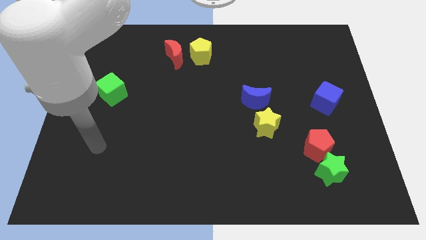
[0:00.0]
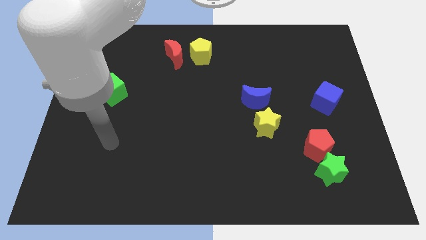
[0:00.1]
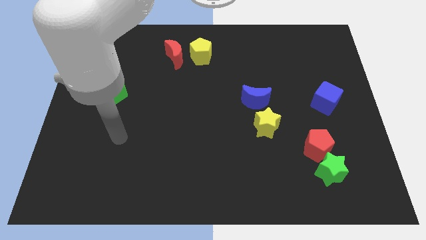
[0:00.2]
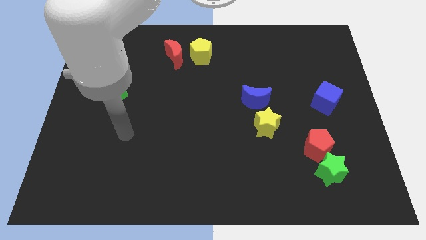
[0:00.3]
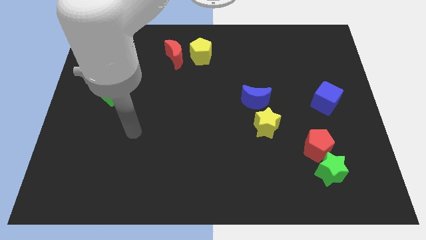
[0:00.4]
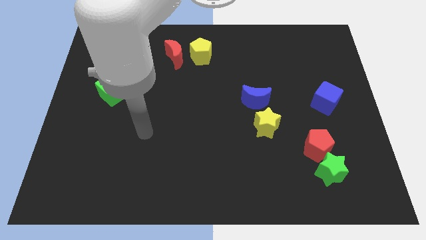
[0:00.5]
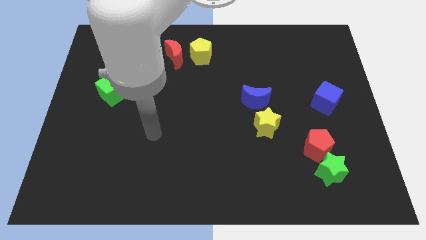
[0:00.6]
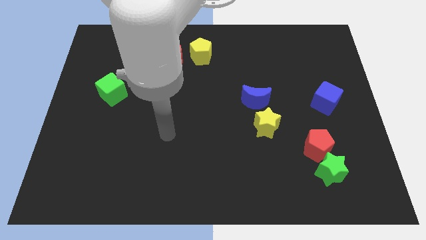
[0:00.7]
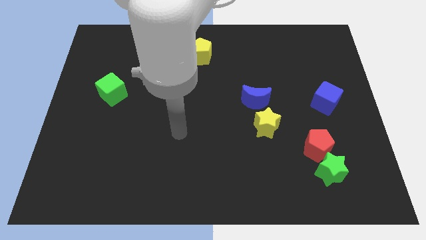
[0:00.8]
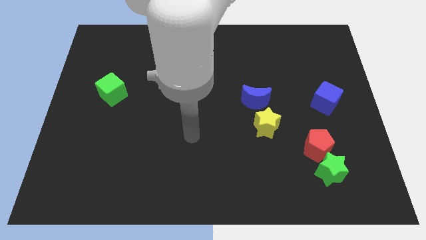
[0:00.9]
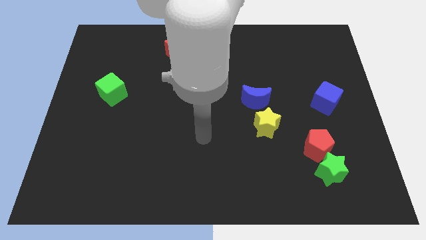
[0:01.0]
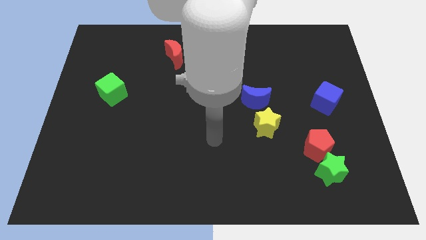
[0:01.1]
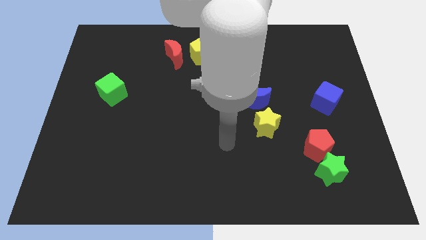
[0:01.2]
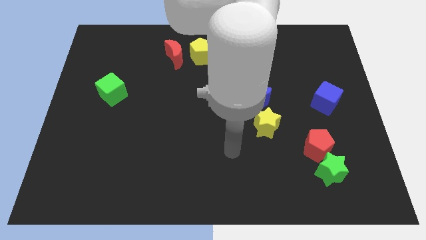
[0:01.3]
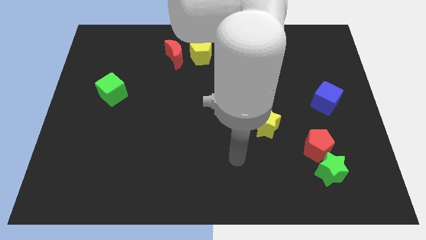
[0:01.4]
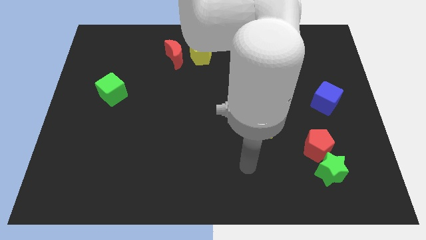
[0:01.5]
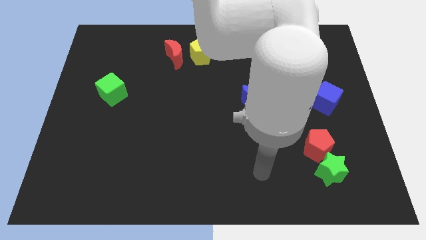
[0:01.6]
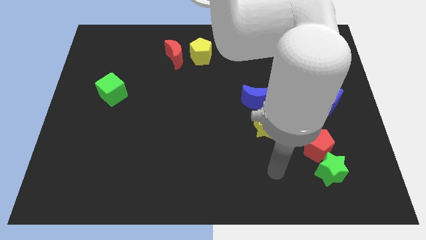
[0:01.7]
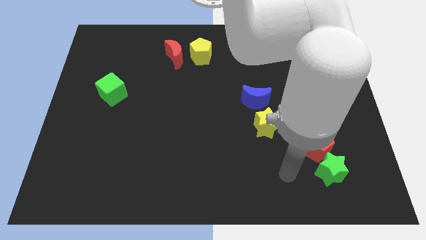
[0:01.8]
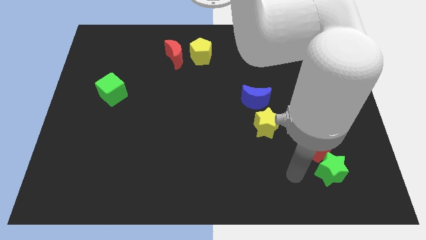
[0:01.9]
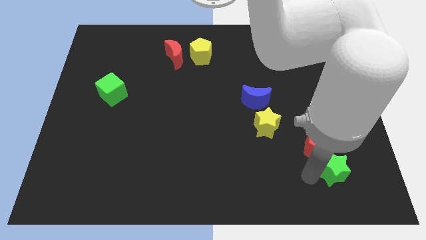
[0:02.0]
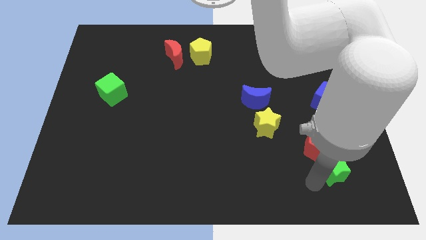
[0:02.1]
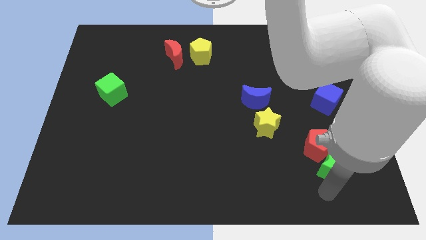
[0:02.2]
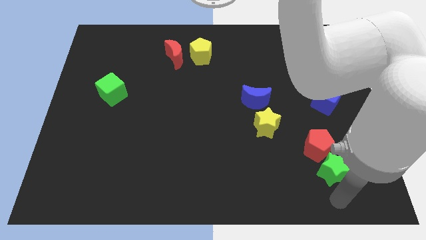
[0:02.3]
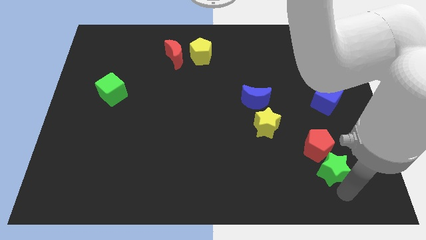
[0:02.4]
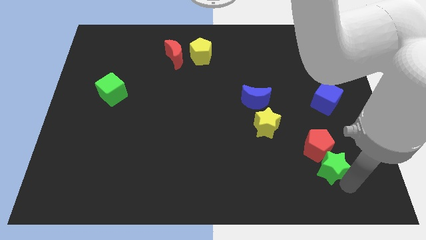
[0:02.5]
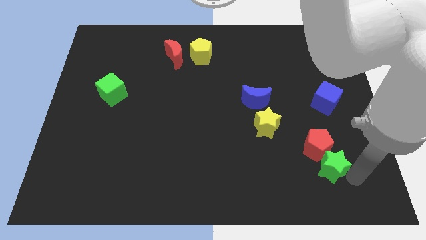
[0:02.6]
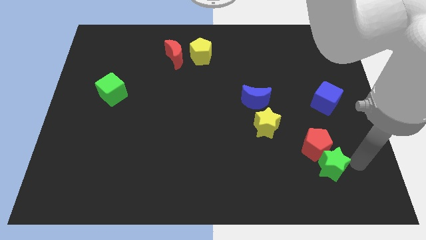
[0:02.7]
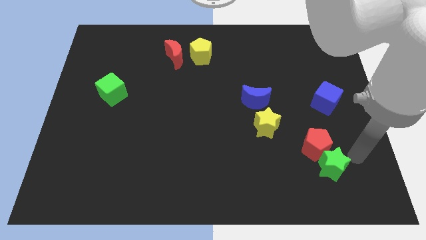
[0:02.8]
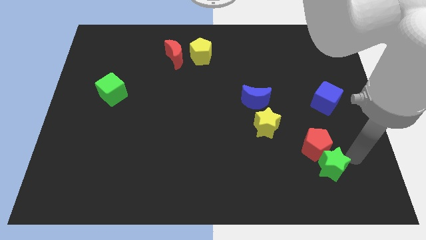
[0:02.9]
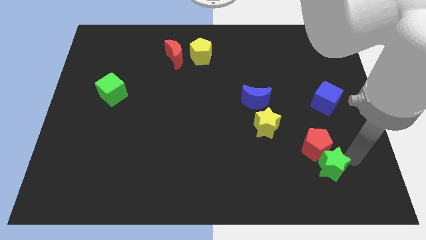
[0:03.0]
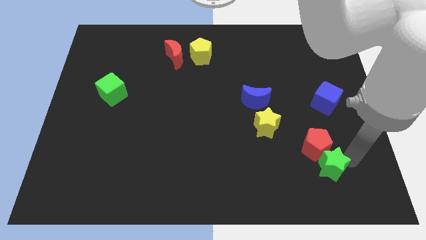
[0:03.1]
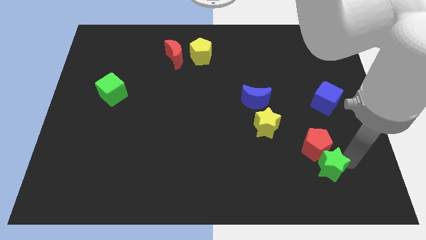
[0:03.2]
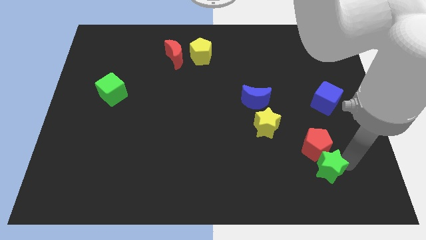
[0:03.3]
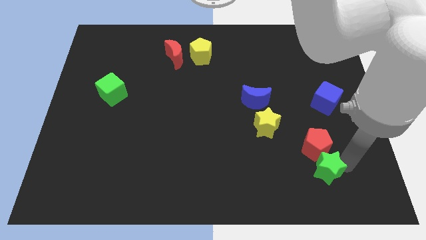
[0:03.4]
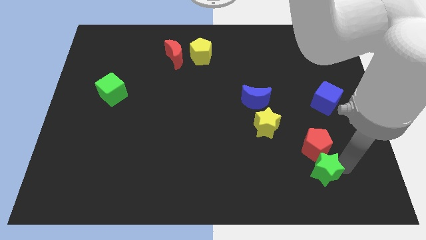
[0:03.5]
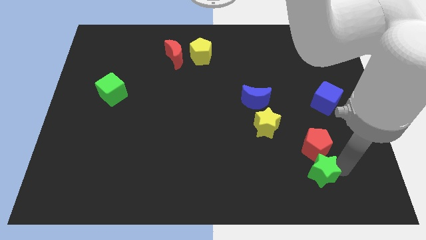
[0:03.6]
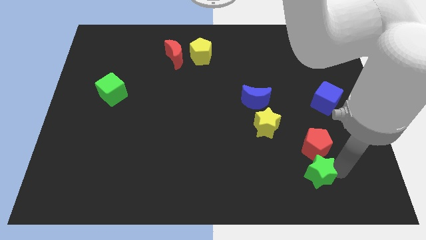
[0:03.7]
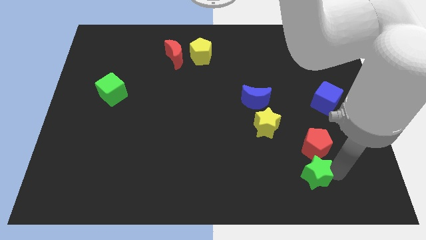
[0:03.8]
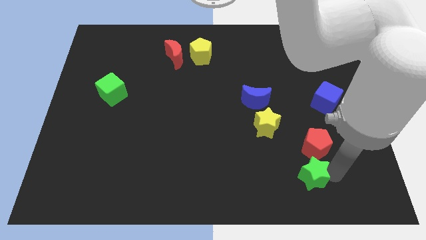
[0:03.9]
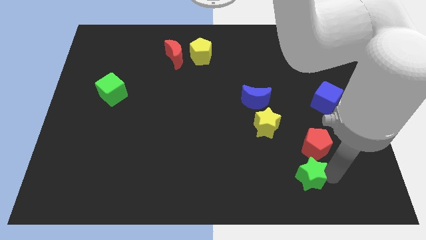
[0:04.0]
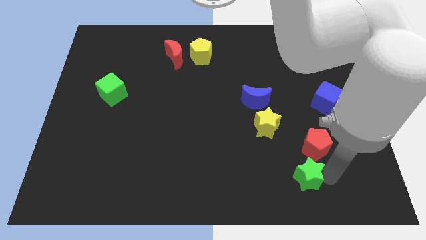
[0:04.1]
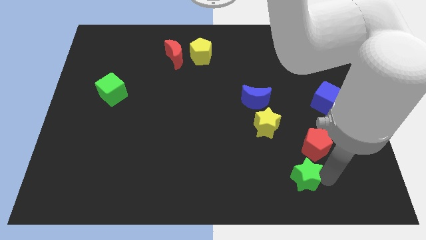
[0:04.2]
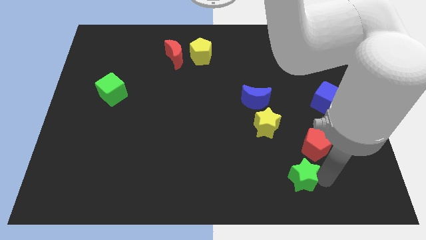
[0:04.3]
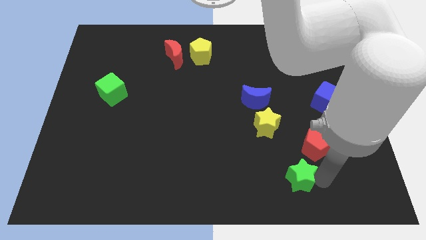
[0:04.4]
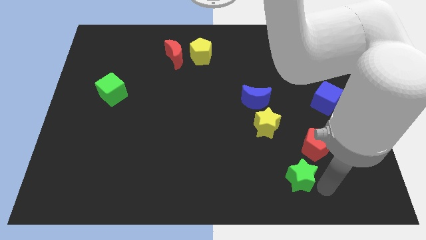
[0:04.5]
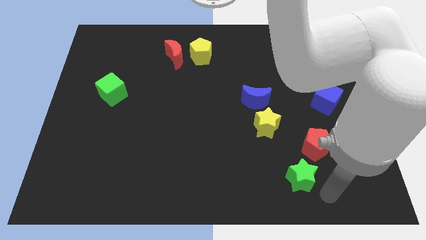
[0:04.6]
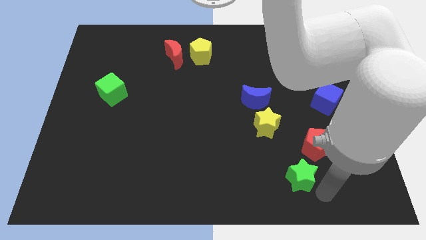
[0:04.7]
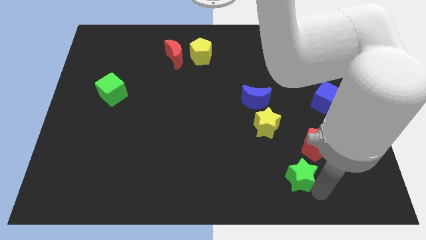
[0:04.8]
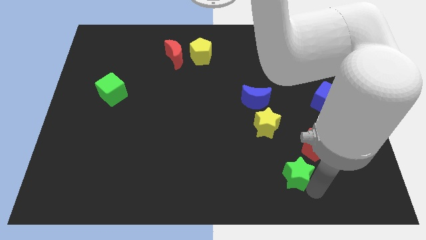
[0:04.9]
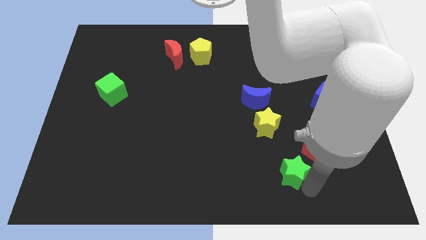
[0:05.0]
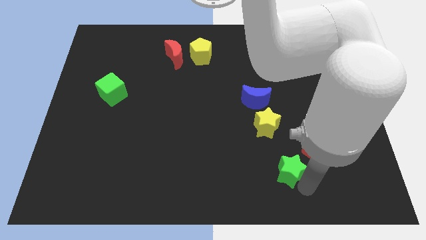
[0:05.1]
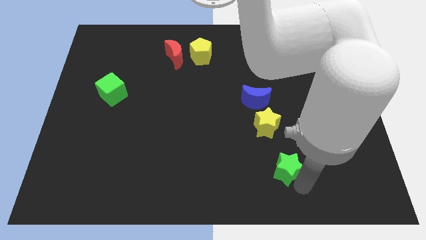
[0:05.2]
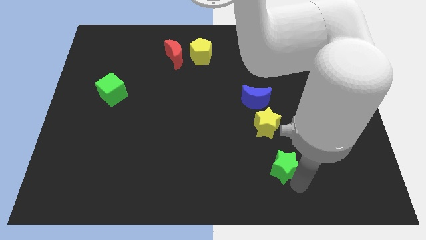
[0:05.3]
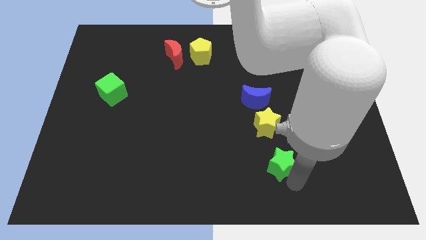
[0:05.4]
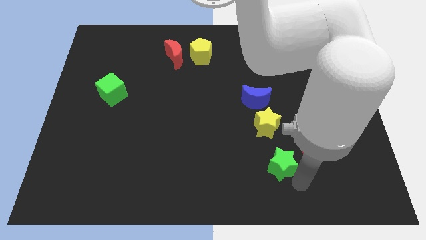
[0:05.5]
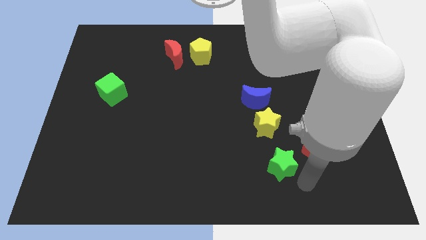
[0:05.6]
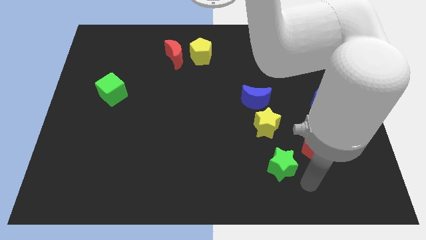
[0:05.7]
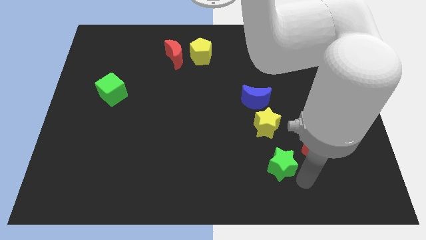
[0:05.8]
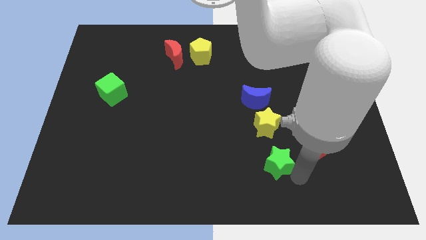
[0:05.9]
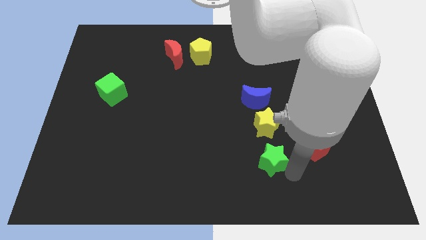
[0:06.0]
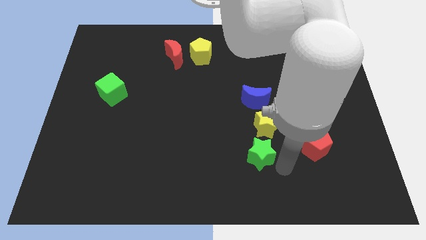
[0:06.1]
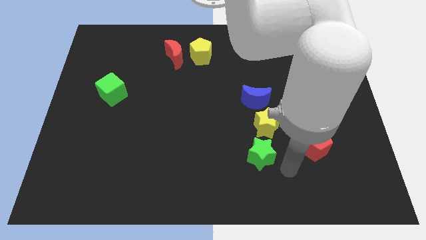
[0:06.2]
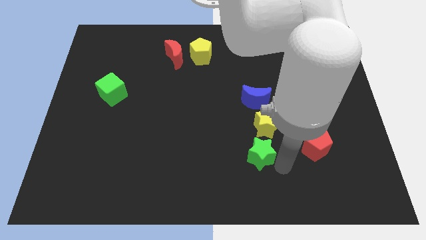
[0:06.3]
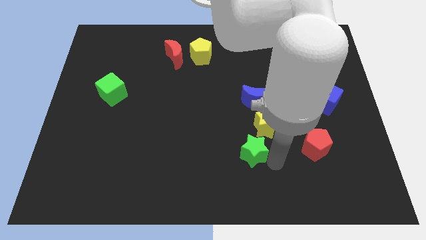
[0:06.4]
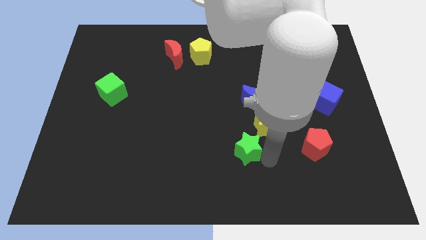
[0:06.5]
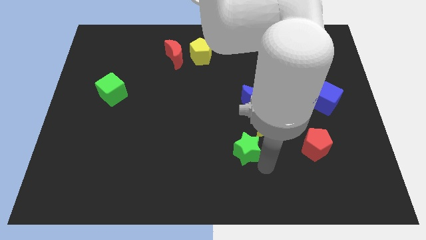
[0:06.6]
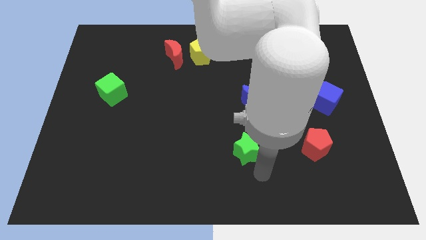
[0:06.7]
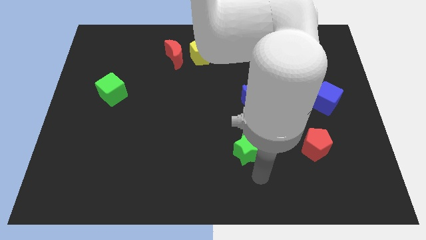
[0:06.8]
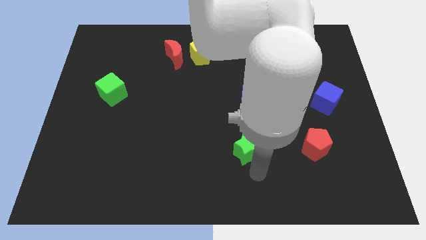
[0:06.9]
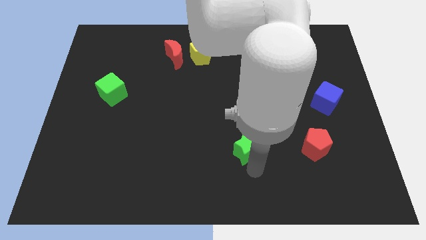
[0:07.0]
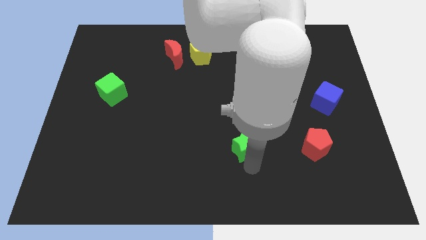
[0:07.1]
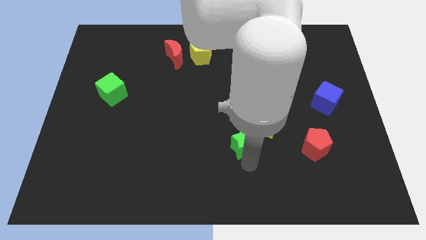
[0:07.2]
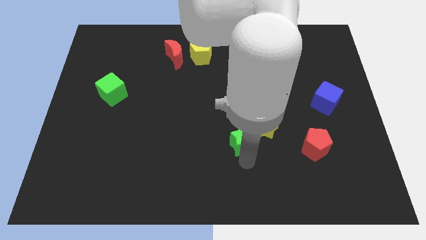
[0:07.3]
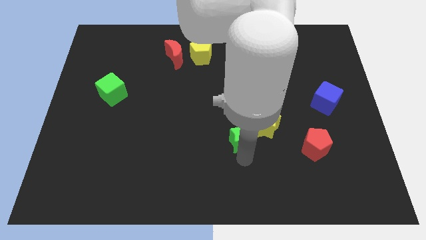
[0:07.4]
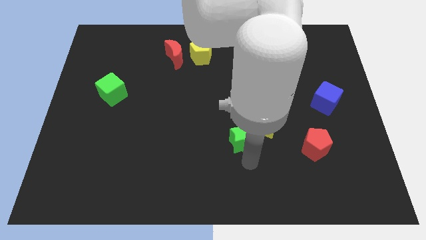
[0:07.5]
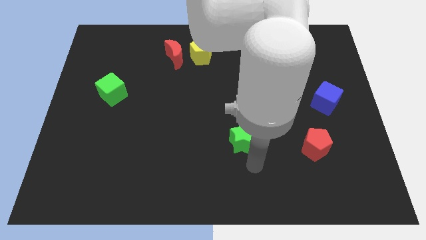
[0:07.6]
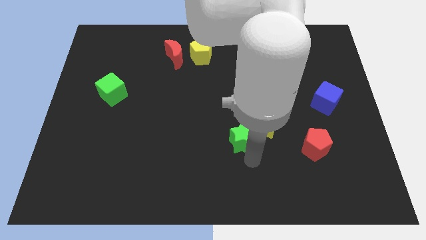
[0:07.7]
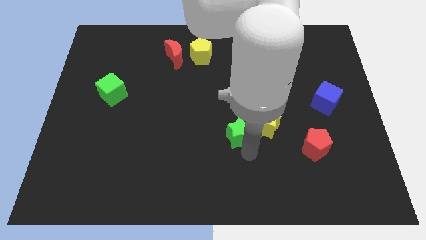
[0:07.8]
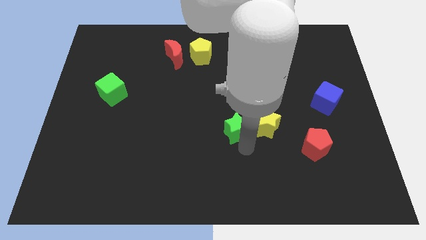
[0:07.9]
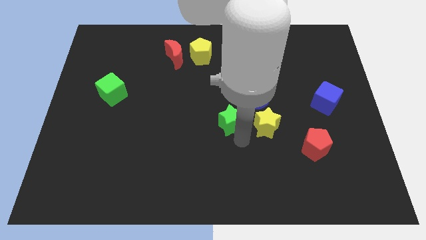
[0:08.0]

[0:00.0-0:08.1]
move the green star diagonally up and left

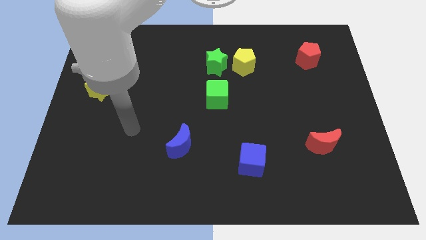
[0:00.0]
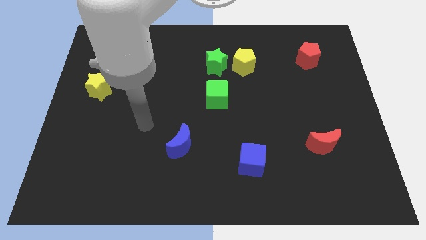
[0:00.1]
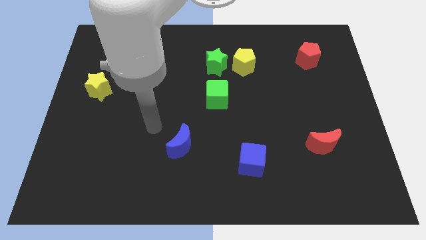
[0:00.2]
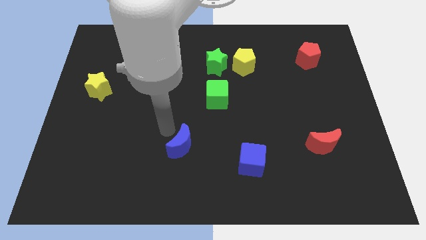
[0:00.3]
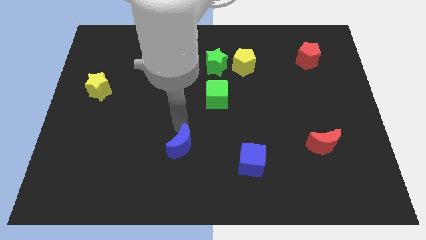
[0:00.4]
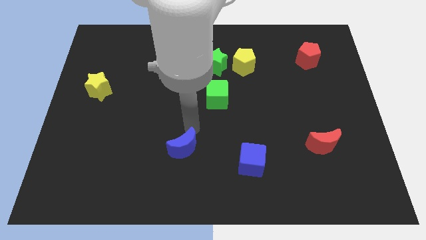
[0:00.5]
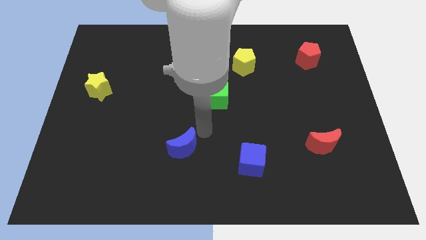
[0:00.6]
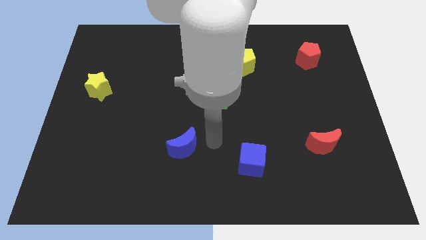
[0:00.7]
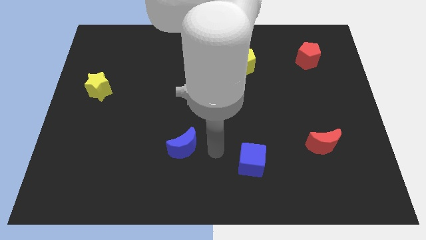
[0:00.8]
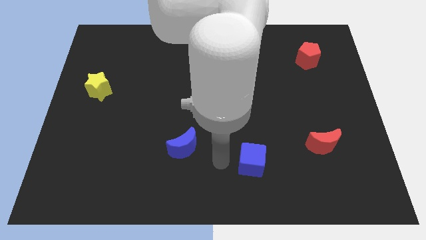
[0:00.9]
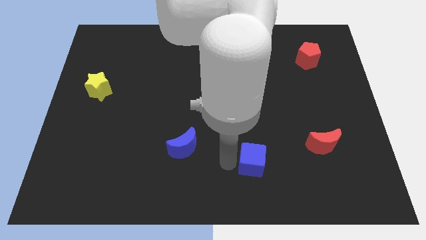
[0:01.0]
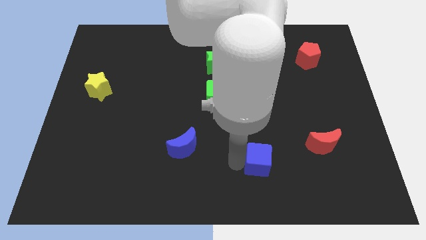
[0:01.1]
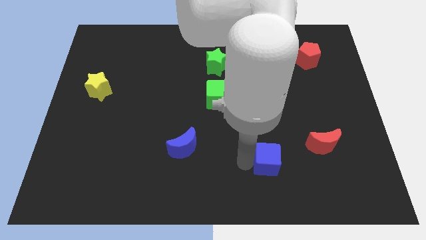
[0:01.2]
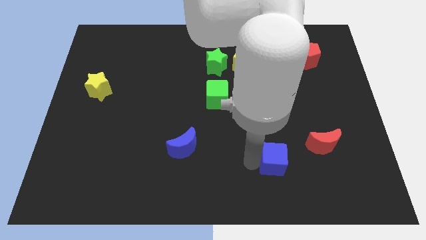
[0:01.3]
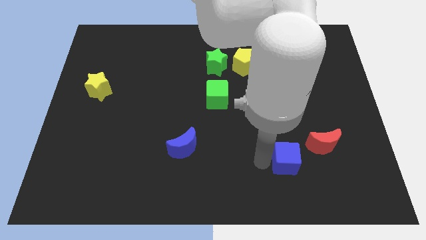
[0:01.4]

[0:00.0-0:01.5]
slide the blue cube right a bit
